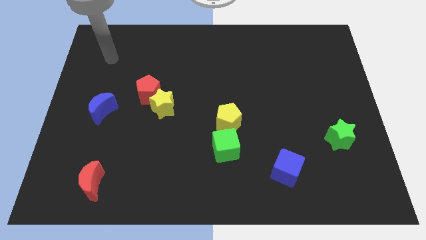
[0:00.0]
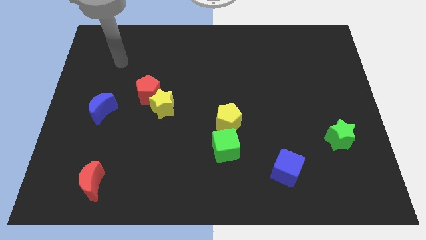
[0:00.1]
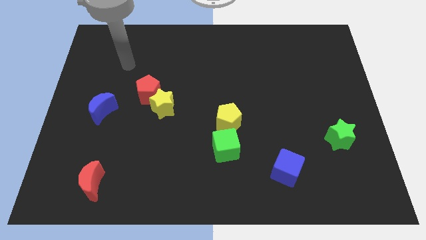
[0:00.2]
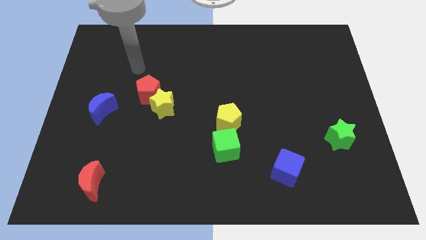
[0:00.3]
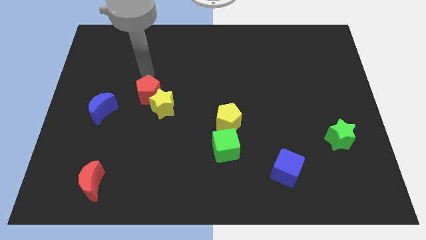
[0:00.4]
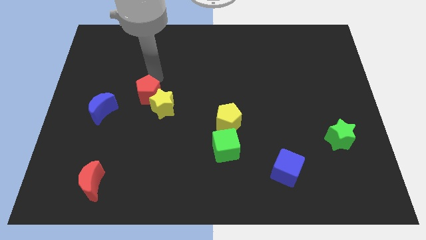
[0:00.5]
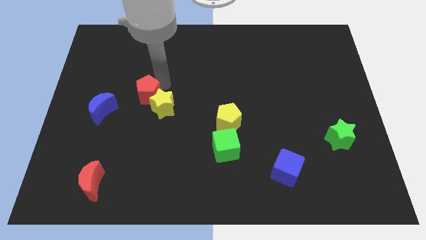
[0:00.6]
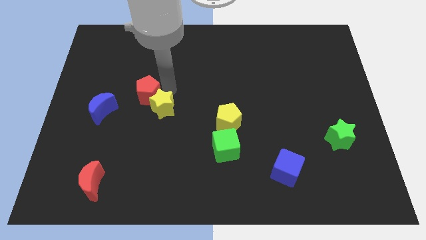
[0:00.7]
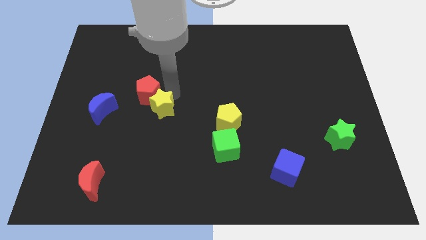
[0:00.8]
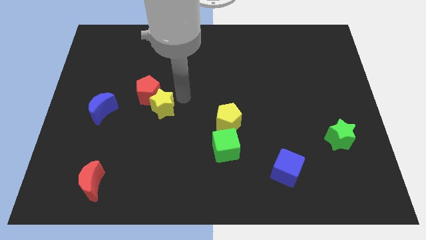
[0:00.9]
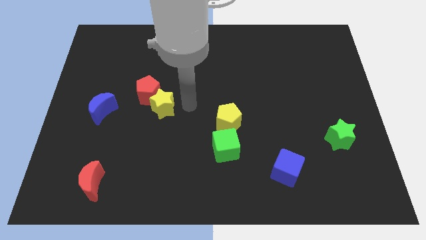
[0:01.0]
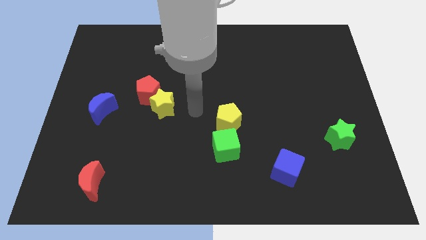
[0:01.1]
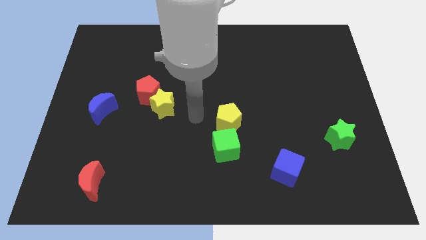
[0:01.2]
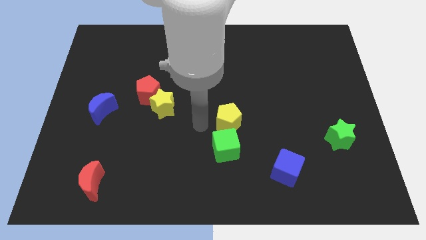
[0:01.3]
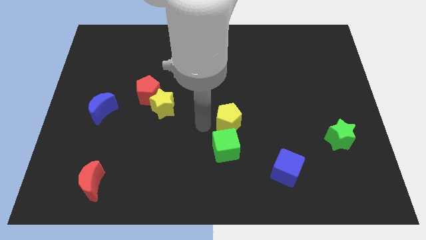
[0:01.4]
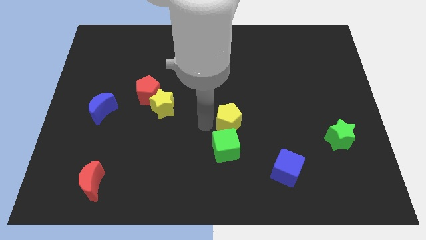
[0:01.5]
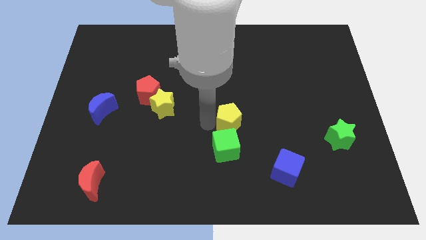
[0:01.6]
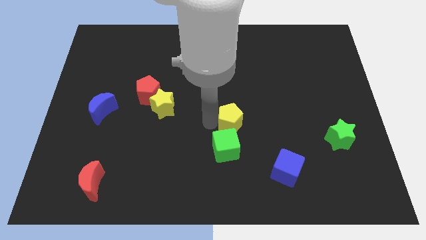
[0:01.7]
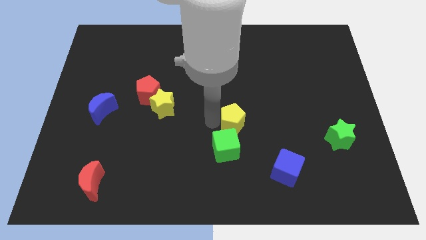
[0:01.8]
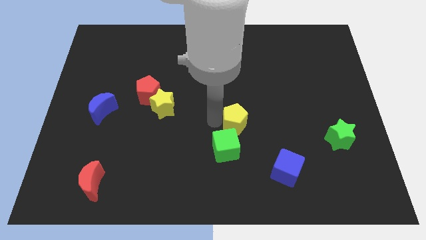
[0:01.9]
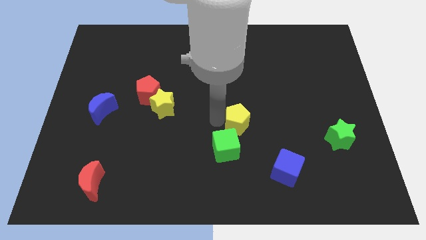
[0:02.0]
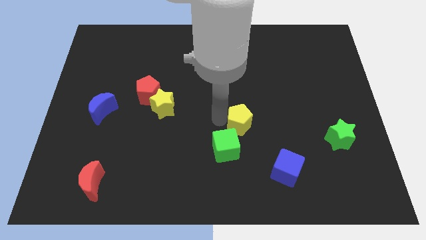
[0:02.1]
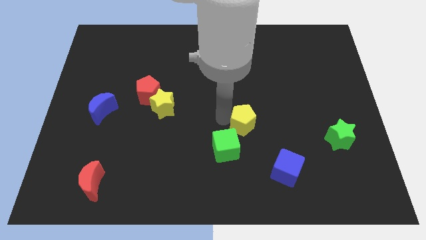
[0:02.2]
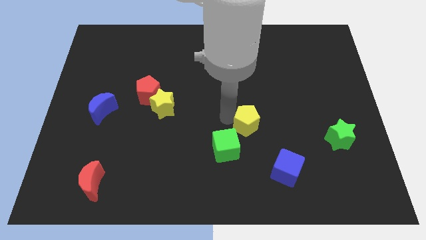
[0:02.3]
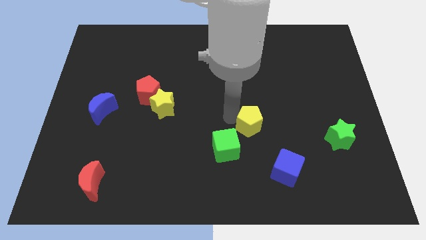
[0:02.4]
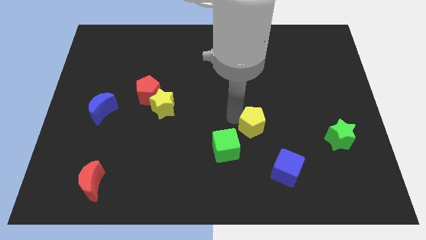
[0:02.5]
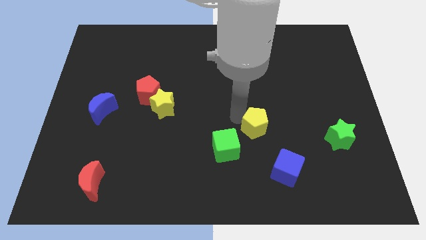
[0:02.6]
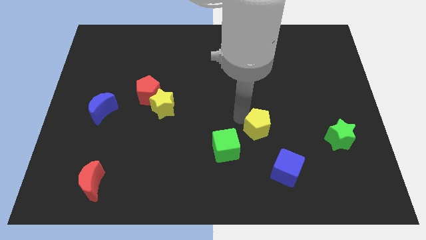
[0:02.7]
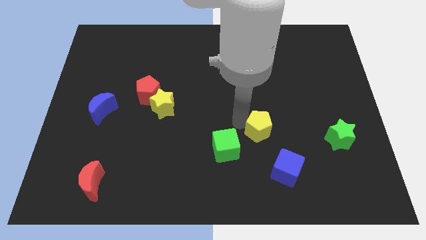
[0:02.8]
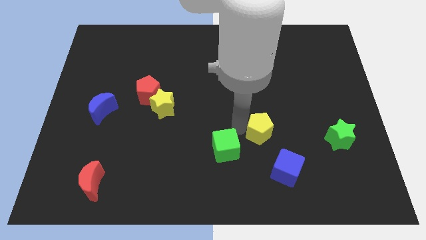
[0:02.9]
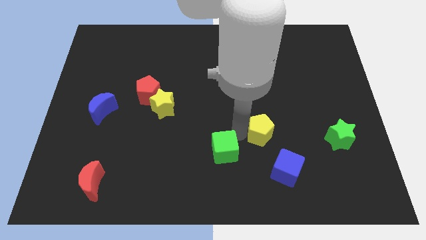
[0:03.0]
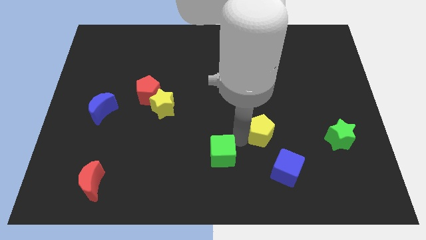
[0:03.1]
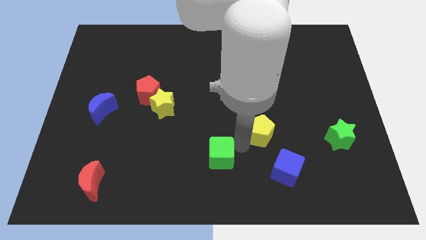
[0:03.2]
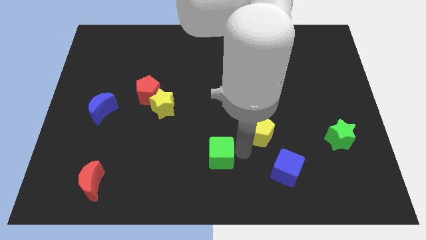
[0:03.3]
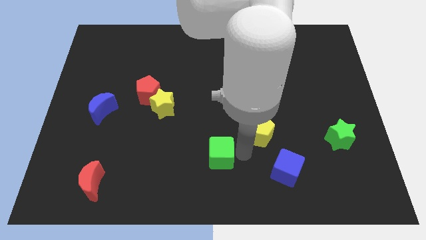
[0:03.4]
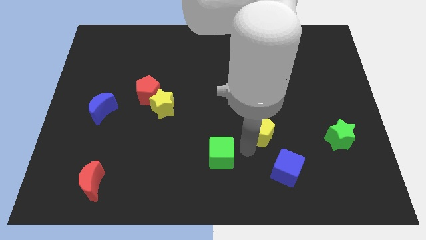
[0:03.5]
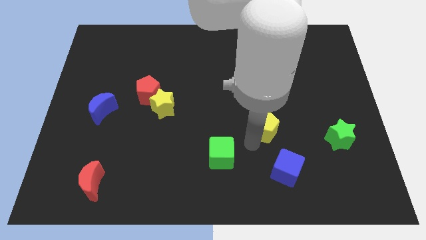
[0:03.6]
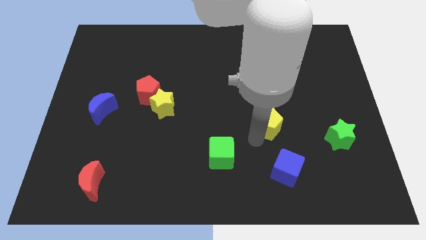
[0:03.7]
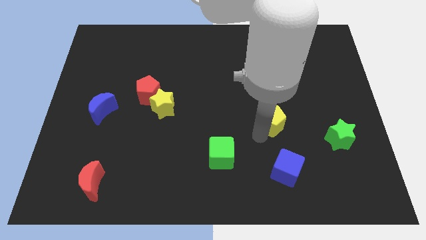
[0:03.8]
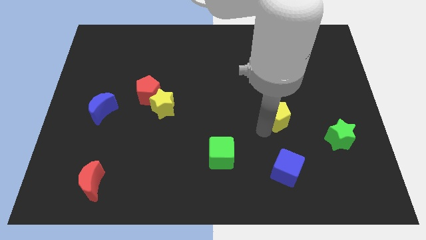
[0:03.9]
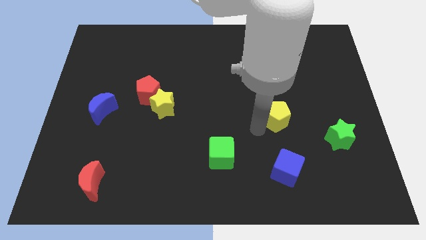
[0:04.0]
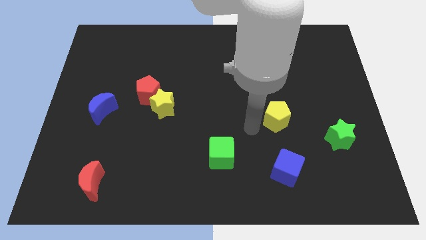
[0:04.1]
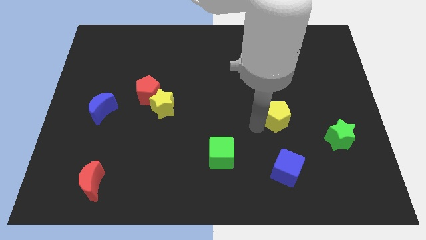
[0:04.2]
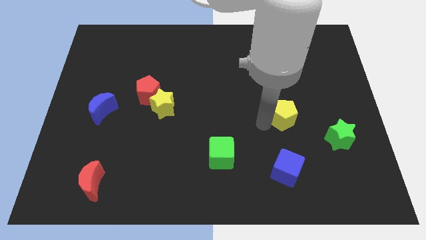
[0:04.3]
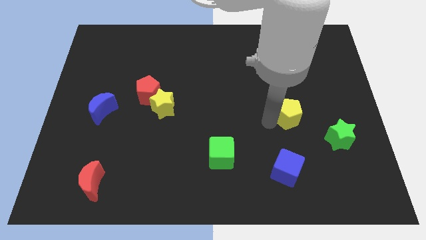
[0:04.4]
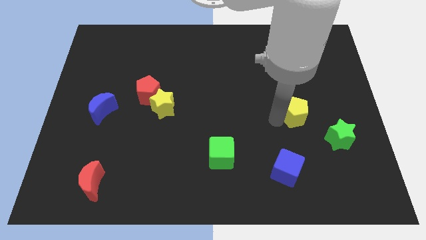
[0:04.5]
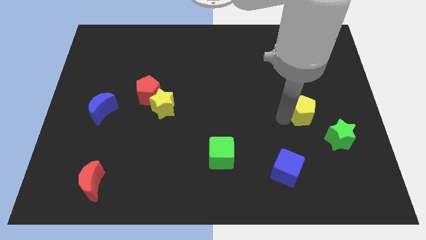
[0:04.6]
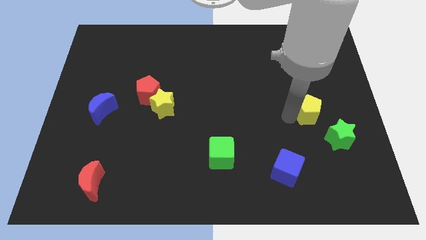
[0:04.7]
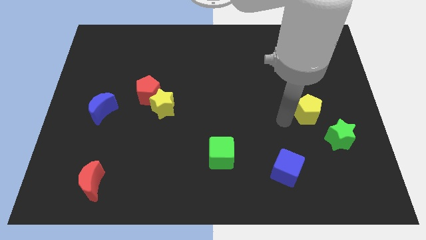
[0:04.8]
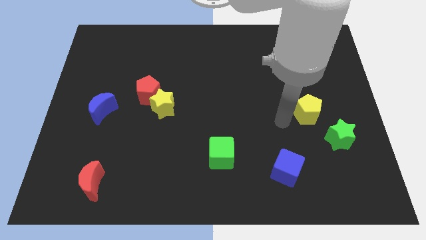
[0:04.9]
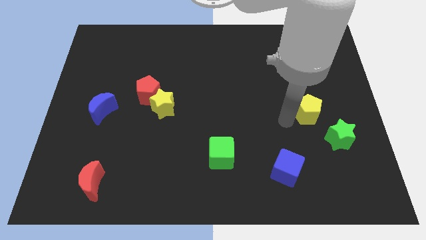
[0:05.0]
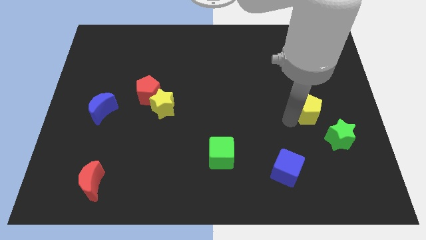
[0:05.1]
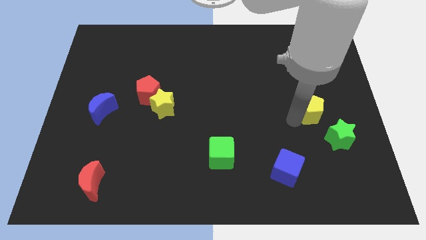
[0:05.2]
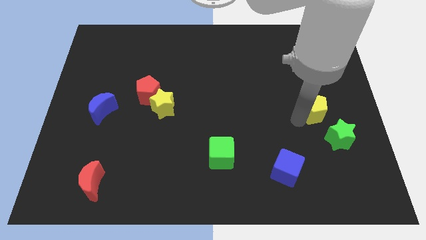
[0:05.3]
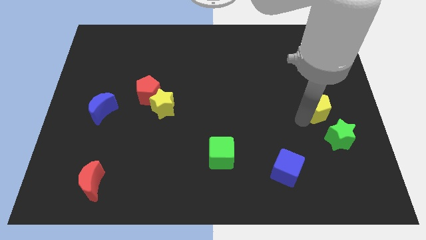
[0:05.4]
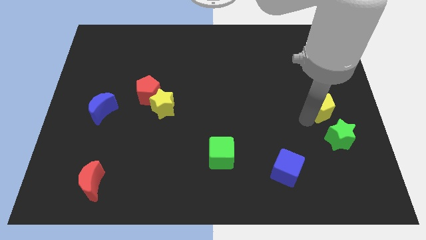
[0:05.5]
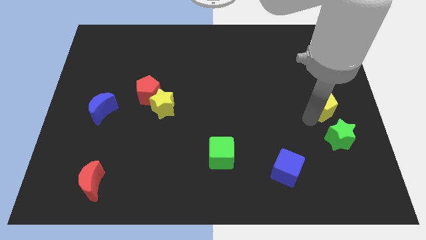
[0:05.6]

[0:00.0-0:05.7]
move the yellow pentagon to the center right
